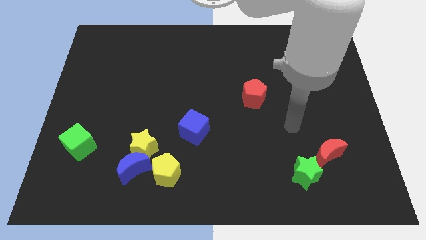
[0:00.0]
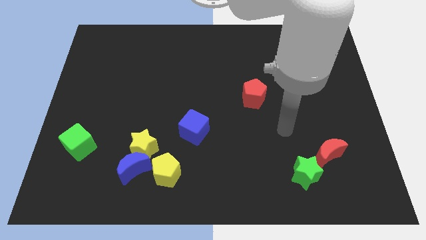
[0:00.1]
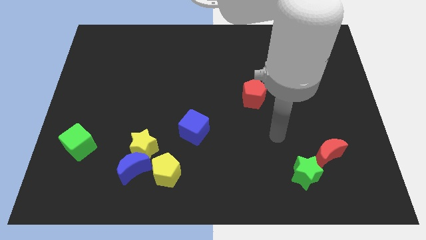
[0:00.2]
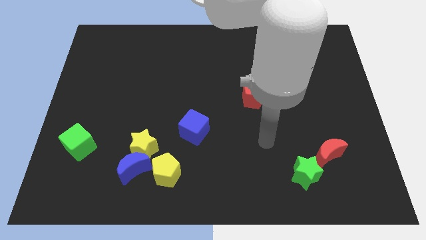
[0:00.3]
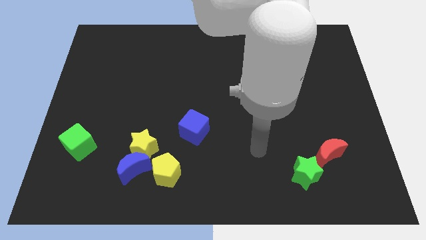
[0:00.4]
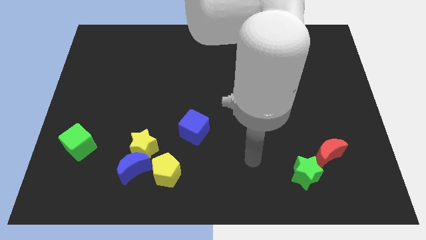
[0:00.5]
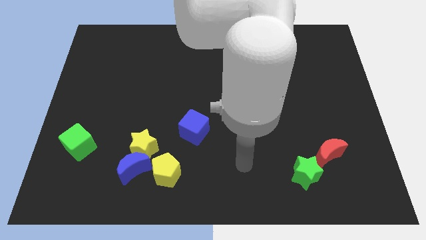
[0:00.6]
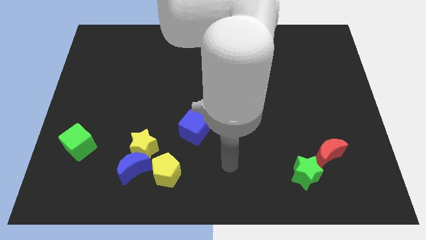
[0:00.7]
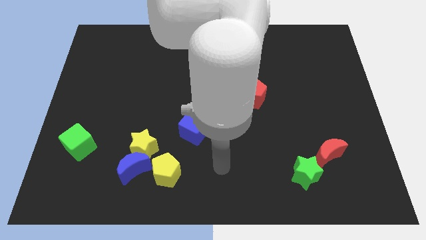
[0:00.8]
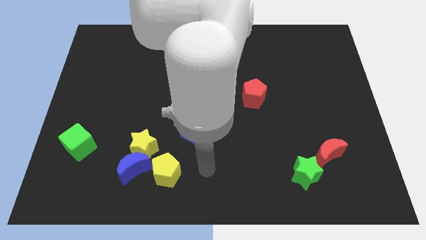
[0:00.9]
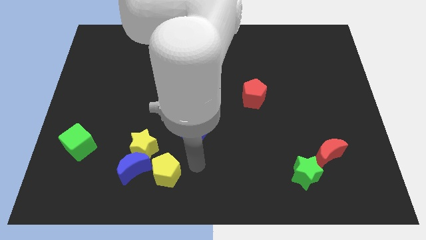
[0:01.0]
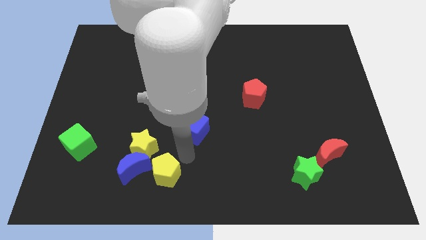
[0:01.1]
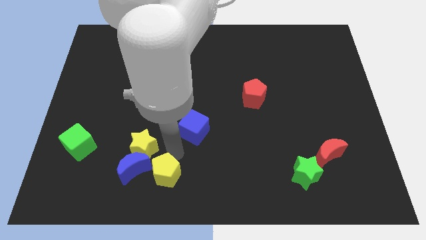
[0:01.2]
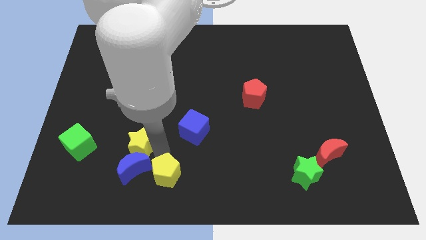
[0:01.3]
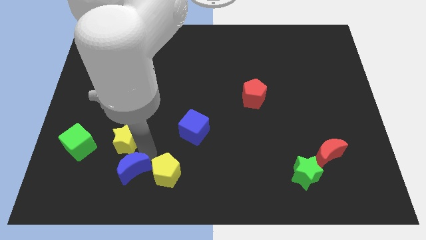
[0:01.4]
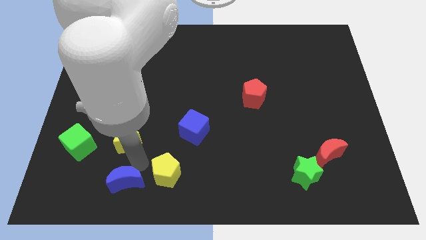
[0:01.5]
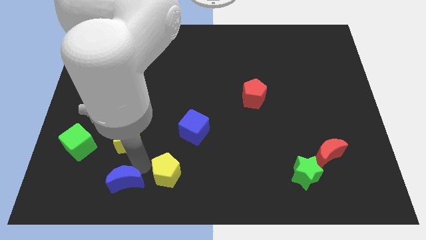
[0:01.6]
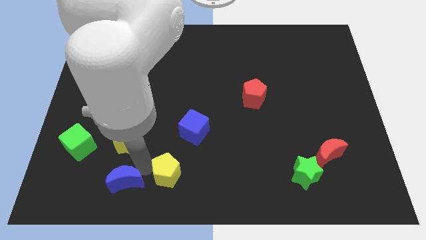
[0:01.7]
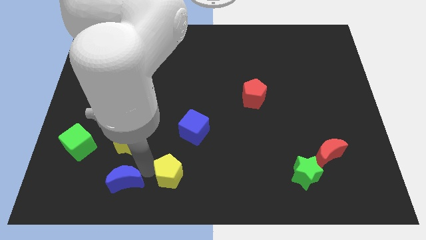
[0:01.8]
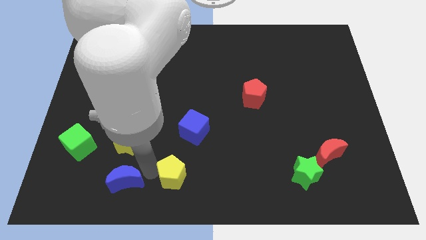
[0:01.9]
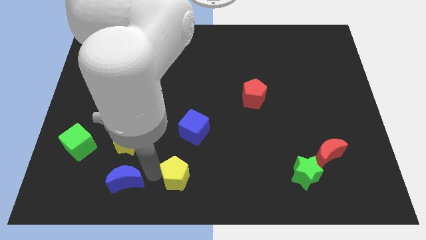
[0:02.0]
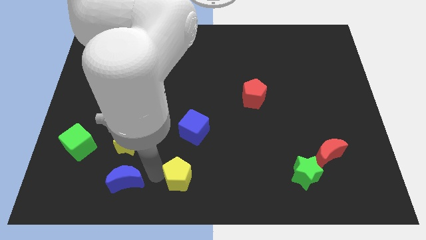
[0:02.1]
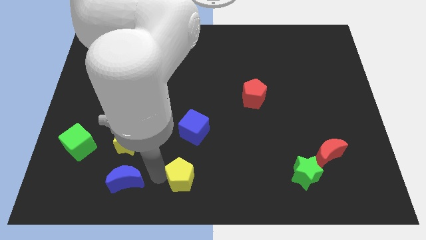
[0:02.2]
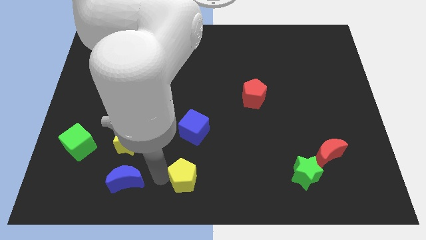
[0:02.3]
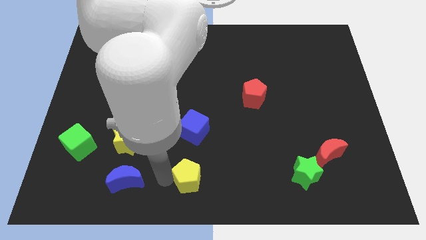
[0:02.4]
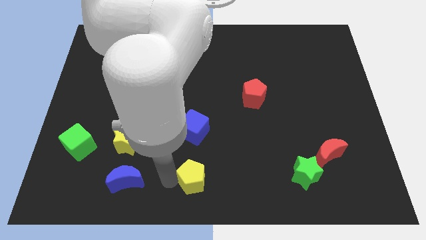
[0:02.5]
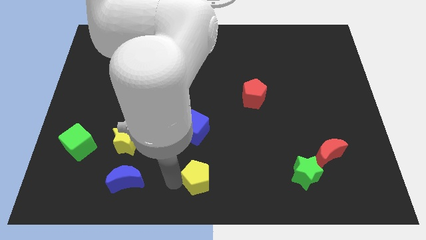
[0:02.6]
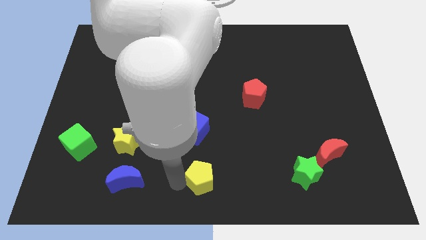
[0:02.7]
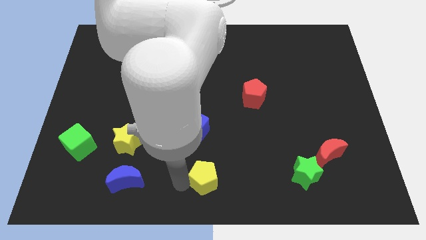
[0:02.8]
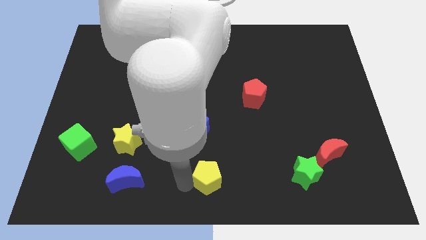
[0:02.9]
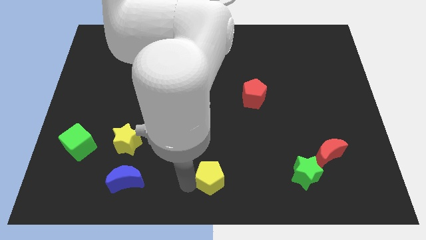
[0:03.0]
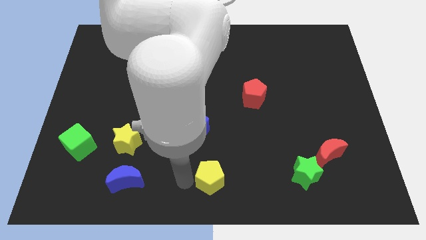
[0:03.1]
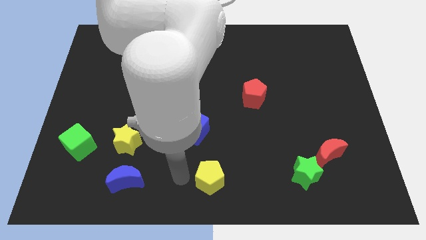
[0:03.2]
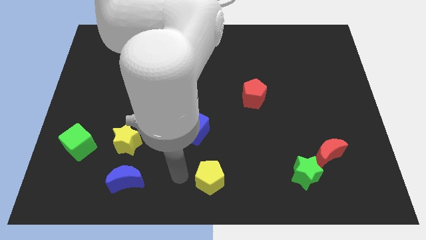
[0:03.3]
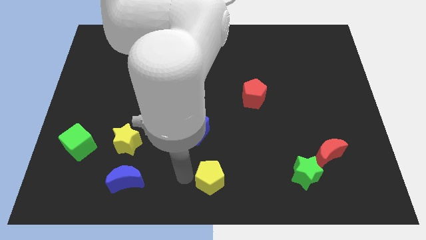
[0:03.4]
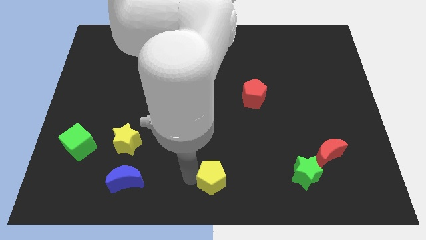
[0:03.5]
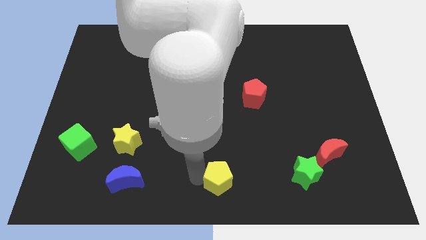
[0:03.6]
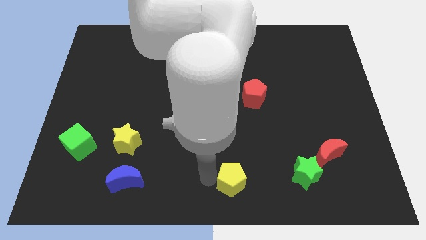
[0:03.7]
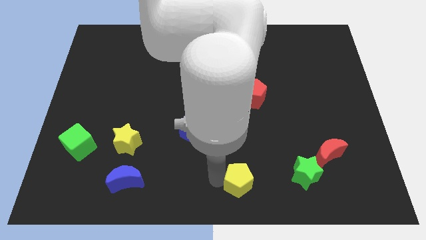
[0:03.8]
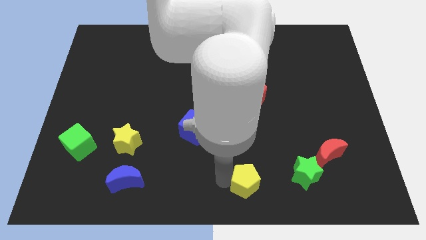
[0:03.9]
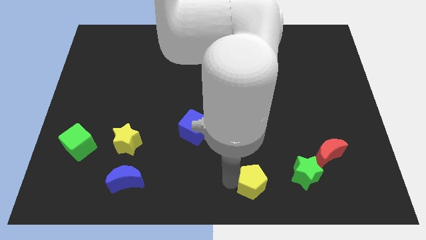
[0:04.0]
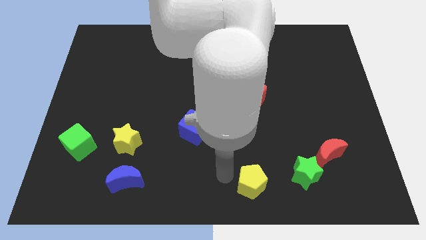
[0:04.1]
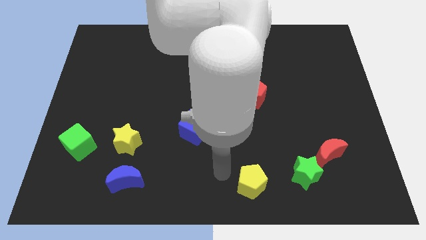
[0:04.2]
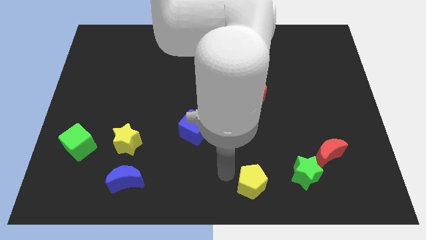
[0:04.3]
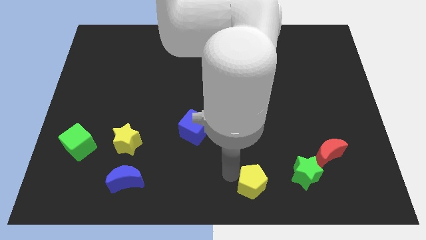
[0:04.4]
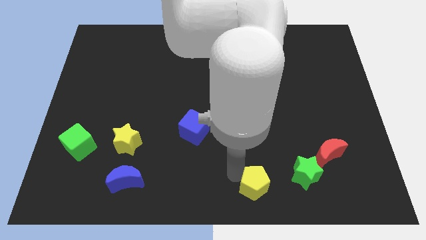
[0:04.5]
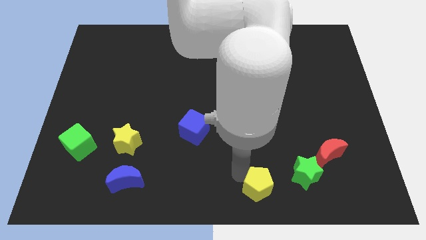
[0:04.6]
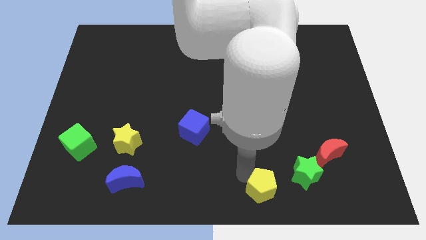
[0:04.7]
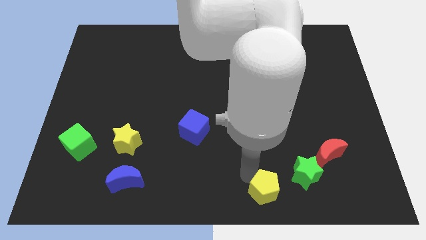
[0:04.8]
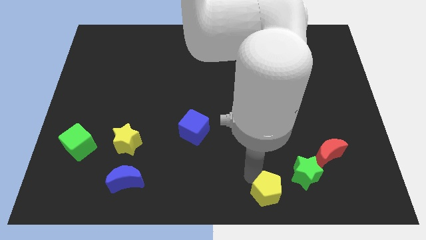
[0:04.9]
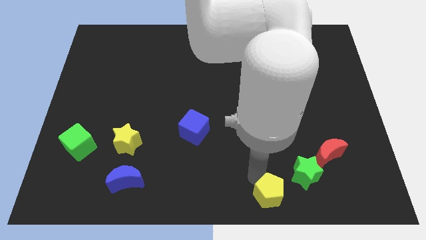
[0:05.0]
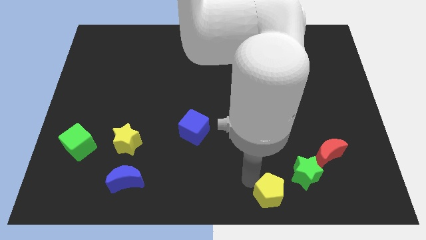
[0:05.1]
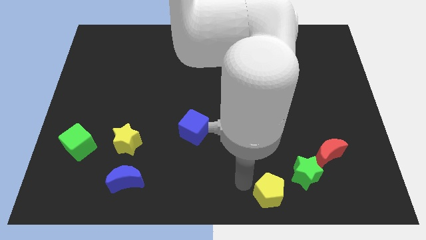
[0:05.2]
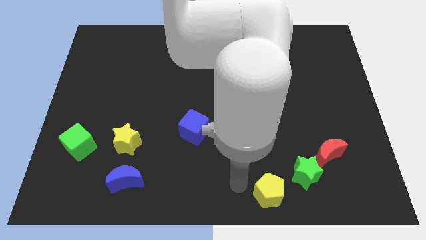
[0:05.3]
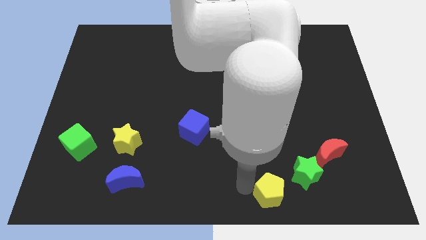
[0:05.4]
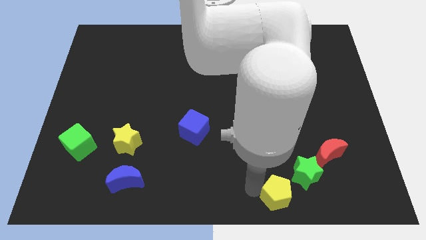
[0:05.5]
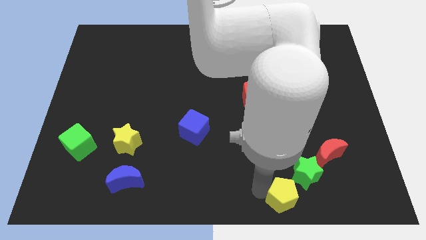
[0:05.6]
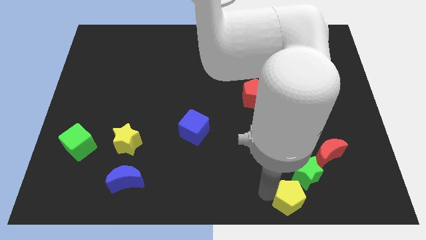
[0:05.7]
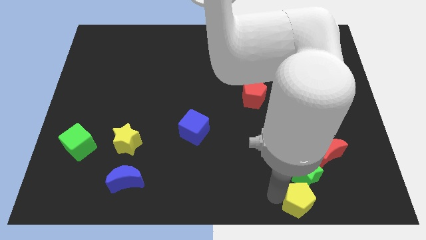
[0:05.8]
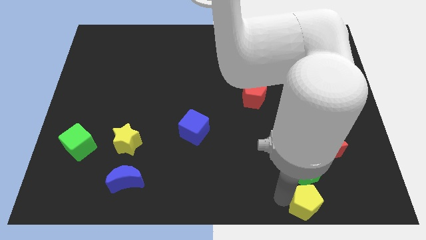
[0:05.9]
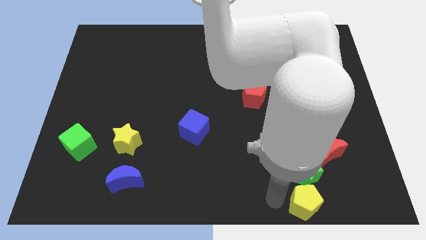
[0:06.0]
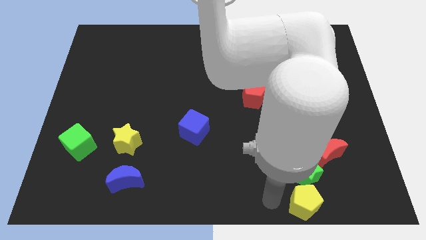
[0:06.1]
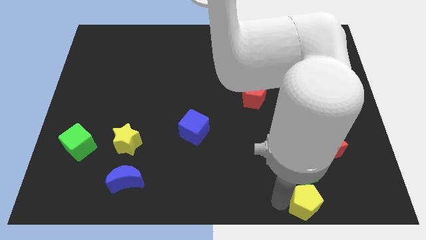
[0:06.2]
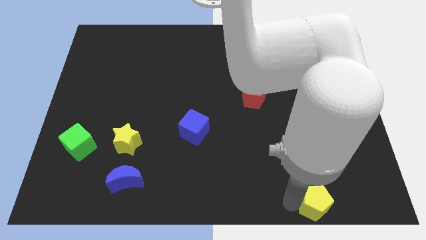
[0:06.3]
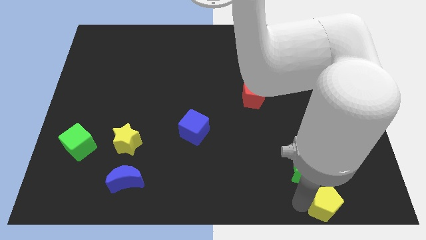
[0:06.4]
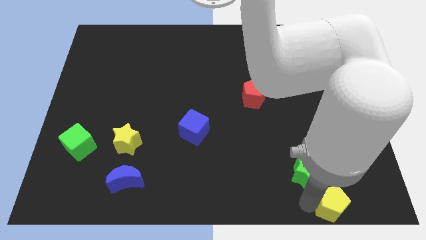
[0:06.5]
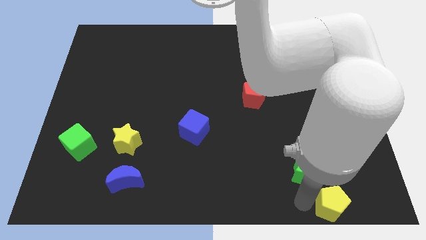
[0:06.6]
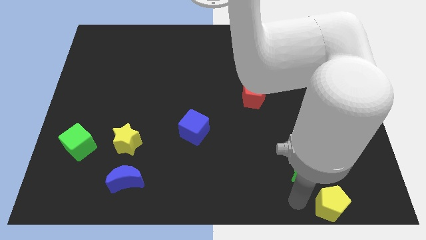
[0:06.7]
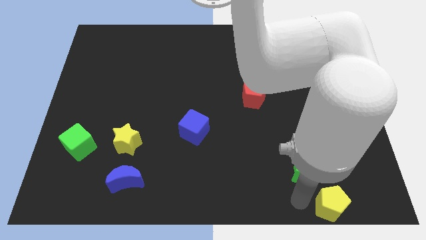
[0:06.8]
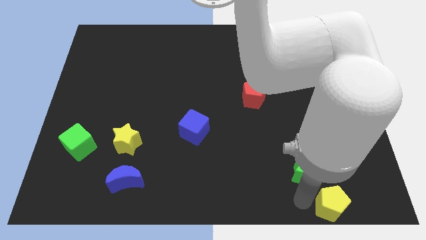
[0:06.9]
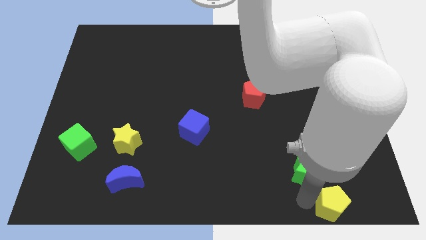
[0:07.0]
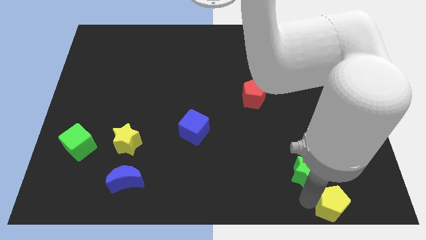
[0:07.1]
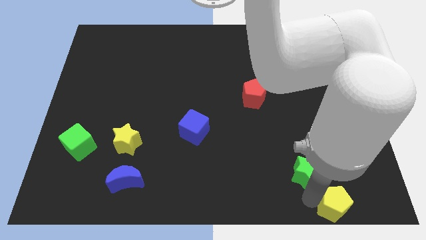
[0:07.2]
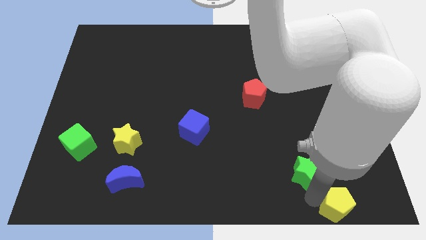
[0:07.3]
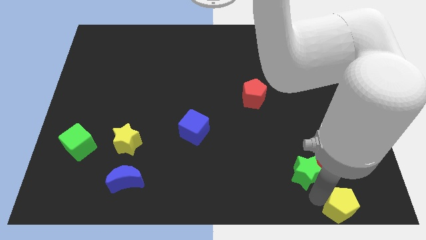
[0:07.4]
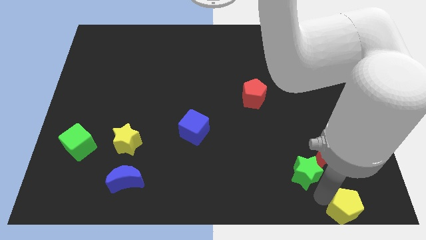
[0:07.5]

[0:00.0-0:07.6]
move the yellow pentagon to the lower right corner
